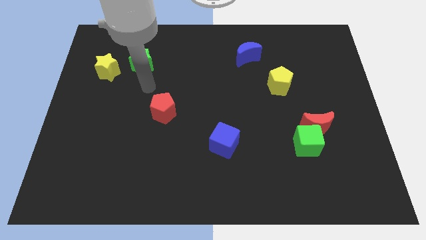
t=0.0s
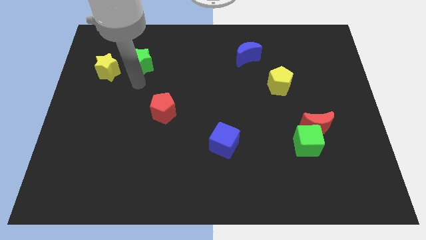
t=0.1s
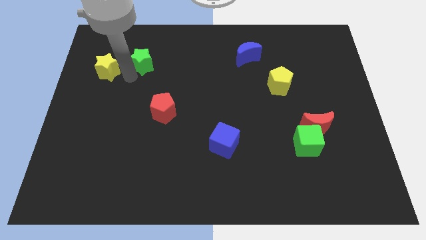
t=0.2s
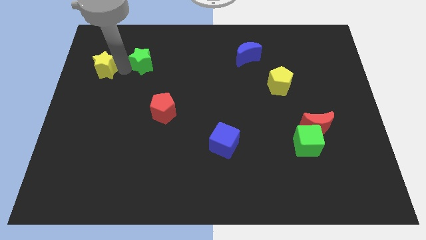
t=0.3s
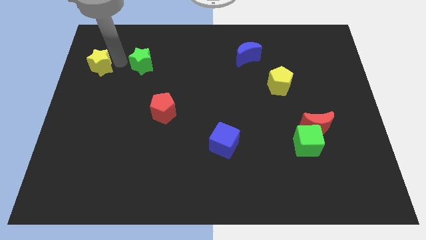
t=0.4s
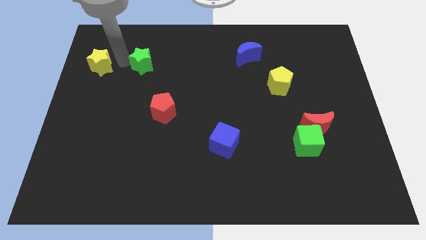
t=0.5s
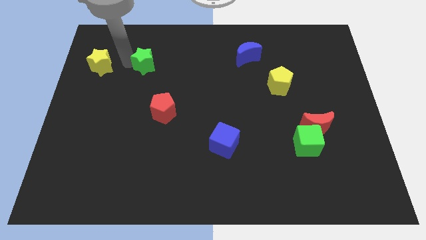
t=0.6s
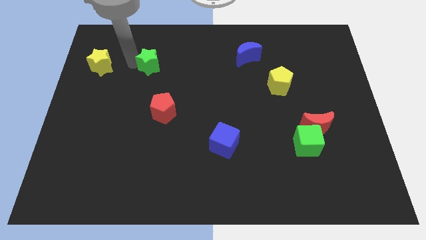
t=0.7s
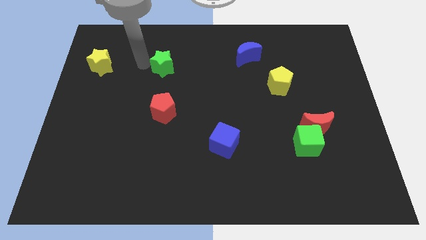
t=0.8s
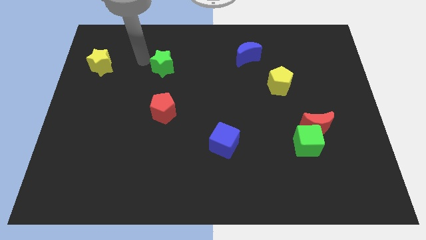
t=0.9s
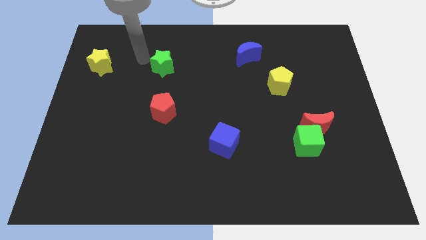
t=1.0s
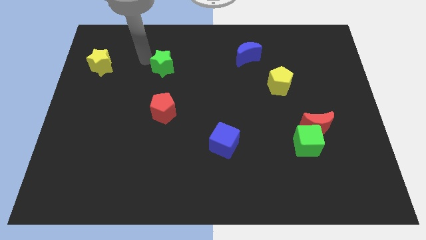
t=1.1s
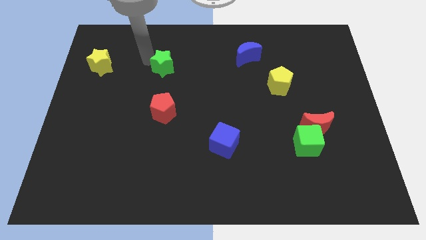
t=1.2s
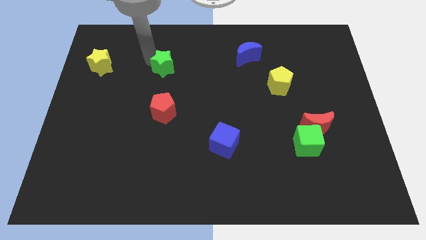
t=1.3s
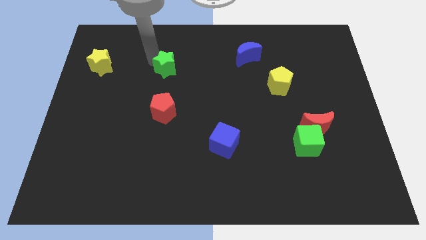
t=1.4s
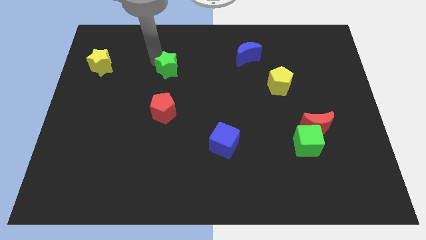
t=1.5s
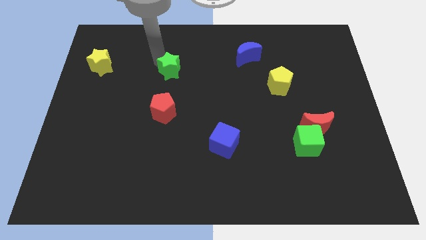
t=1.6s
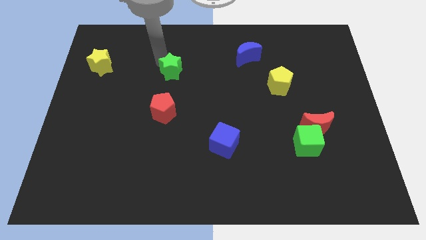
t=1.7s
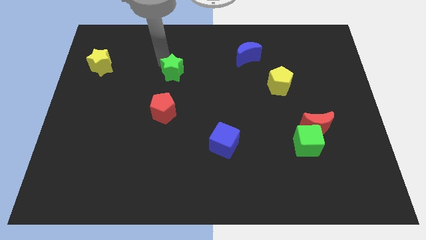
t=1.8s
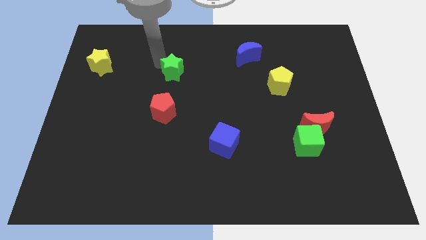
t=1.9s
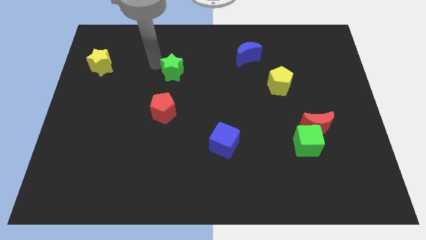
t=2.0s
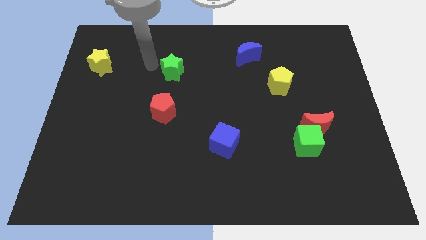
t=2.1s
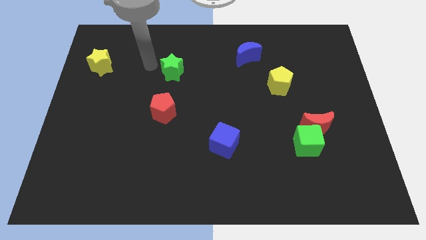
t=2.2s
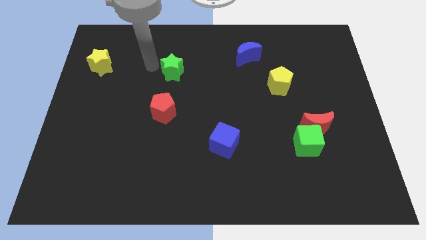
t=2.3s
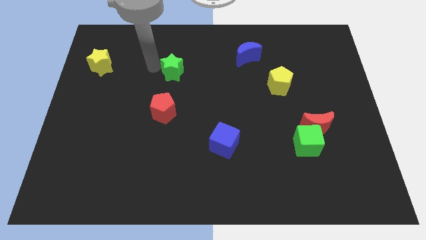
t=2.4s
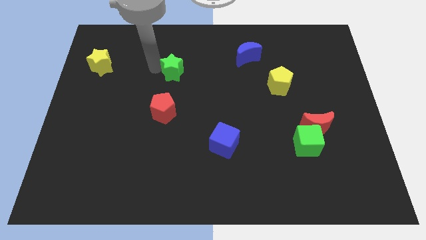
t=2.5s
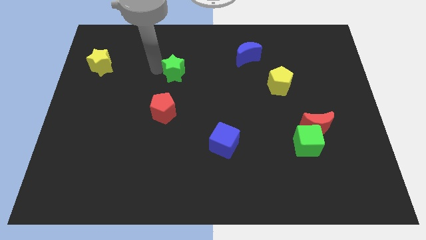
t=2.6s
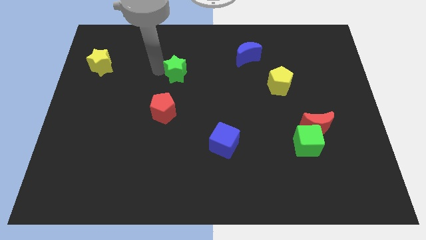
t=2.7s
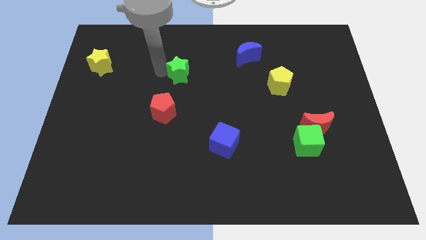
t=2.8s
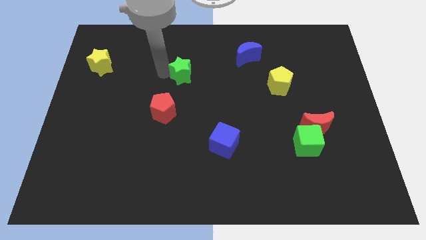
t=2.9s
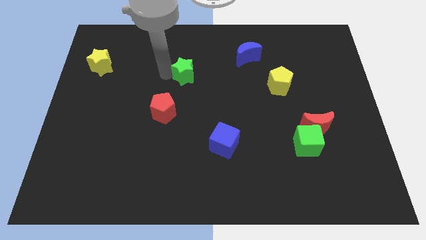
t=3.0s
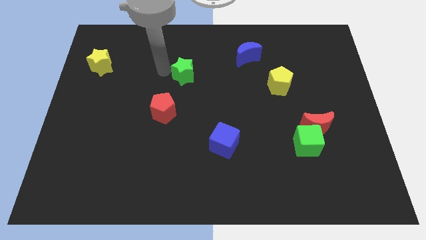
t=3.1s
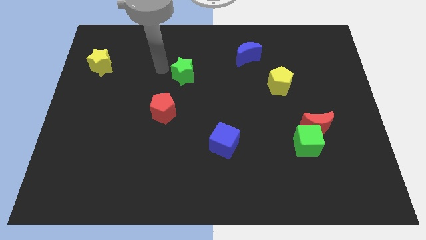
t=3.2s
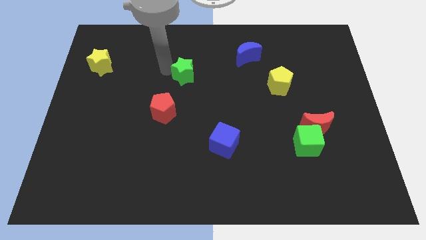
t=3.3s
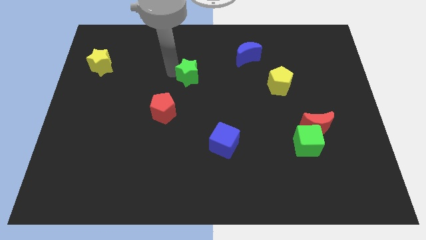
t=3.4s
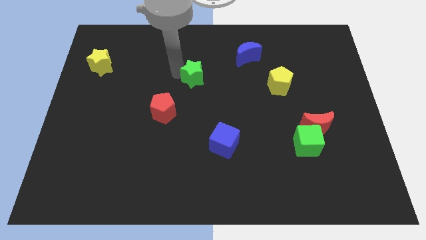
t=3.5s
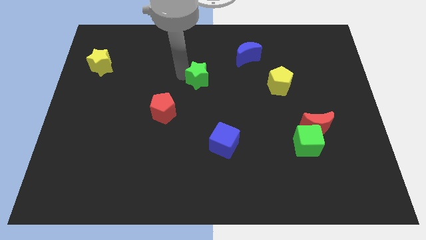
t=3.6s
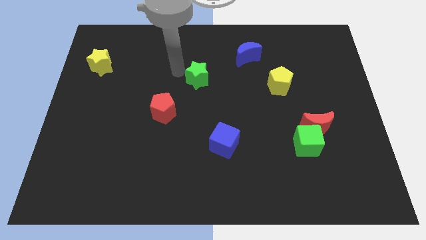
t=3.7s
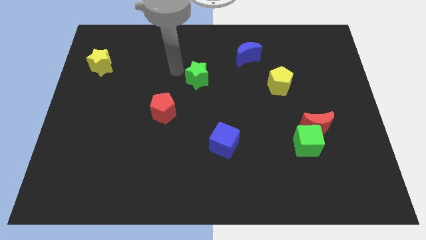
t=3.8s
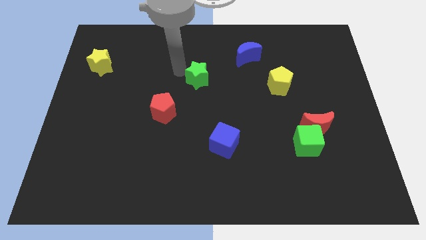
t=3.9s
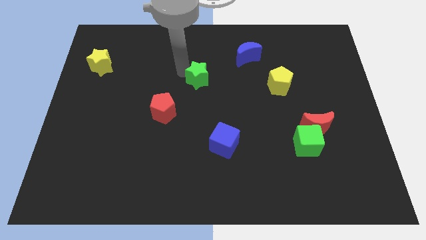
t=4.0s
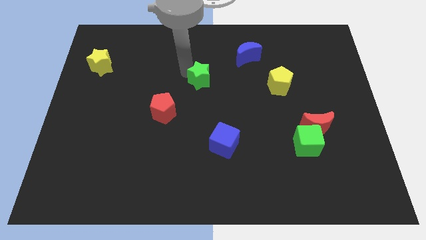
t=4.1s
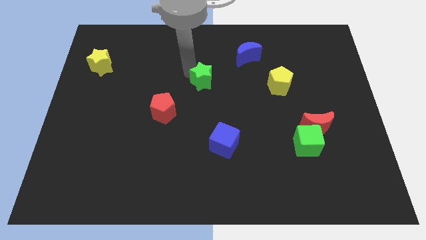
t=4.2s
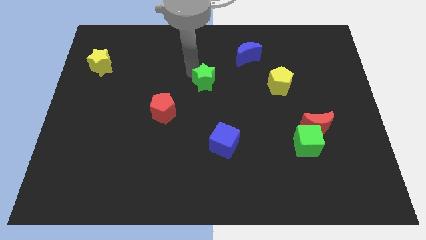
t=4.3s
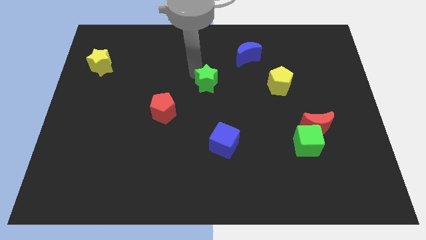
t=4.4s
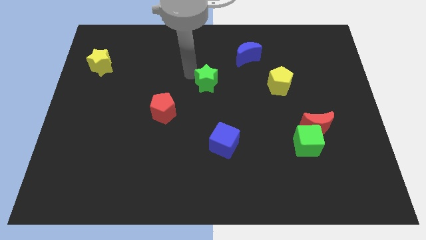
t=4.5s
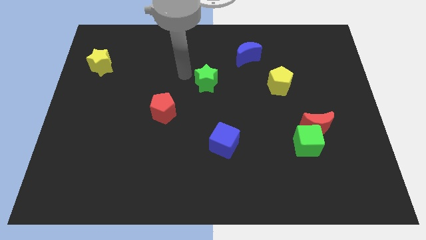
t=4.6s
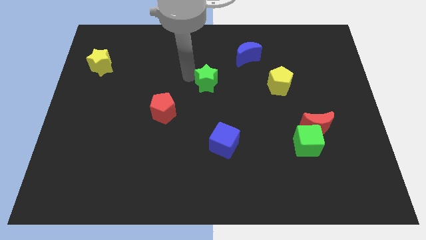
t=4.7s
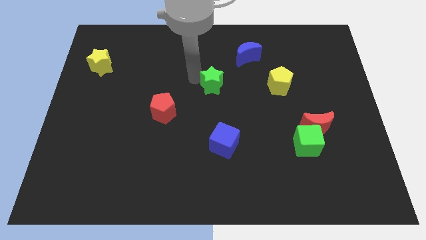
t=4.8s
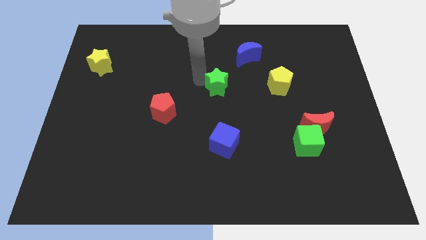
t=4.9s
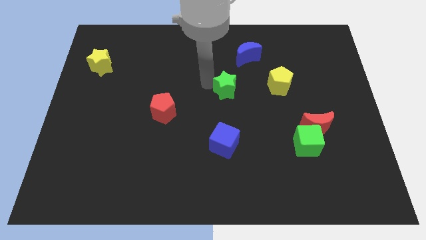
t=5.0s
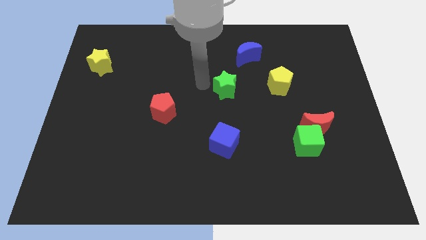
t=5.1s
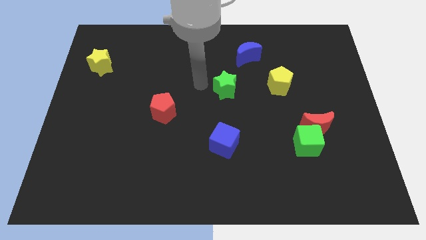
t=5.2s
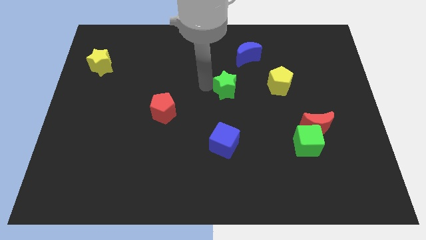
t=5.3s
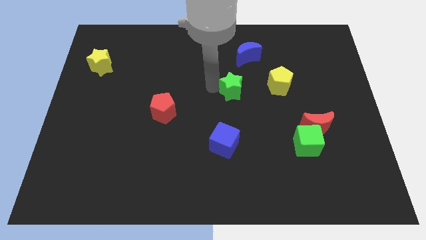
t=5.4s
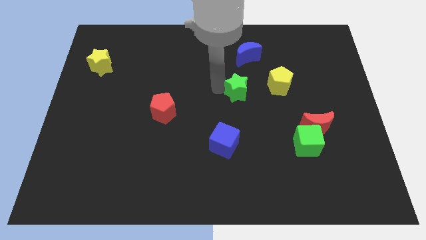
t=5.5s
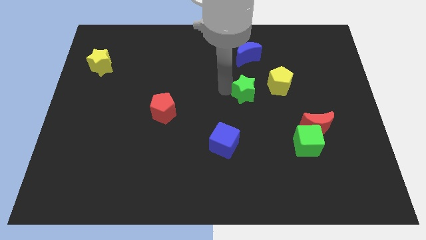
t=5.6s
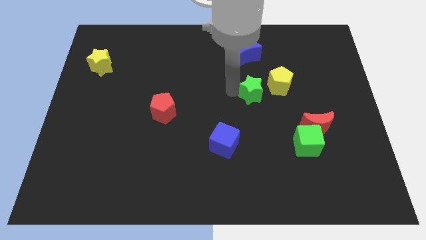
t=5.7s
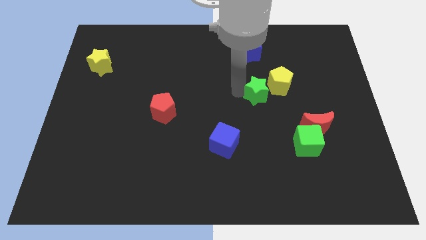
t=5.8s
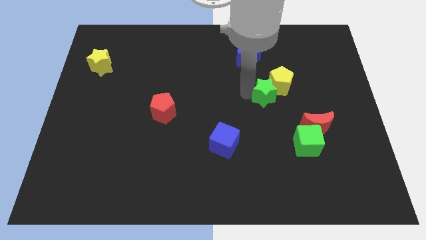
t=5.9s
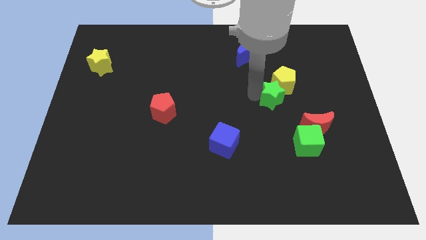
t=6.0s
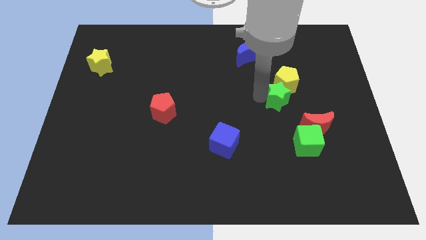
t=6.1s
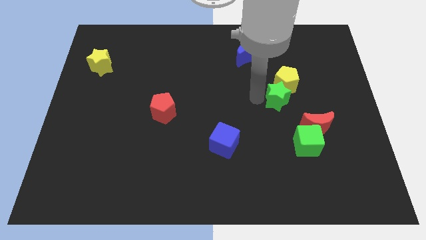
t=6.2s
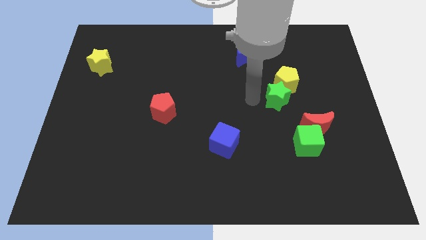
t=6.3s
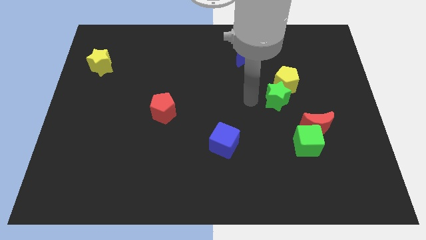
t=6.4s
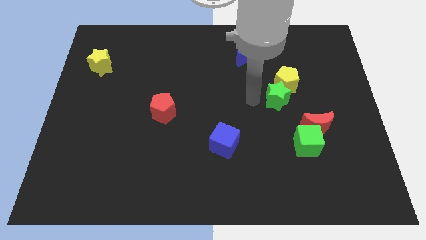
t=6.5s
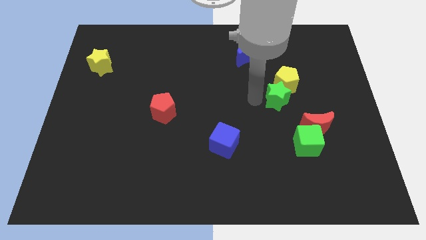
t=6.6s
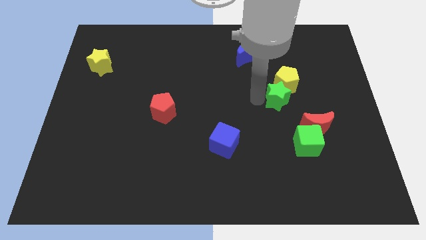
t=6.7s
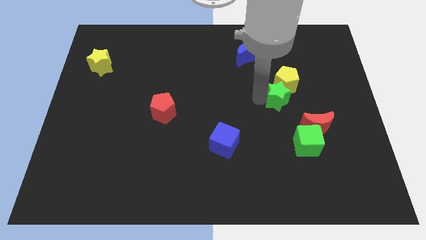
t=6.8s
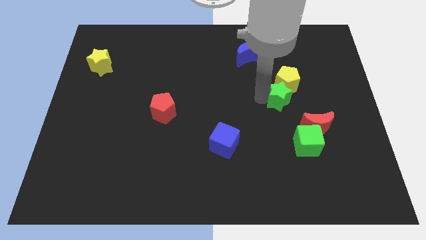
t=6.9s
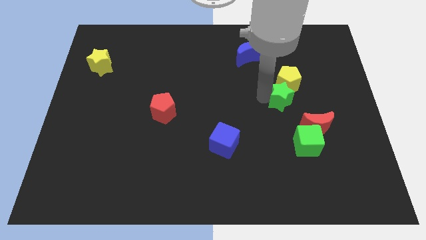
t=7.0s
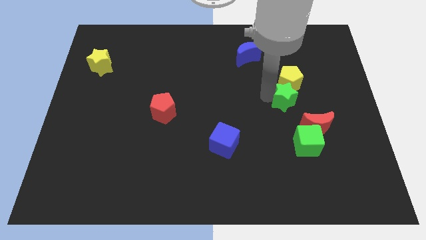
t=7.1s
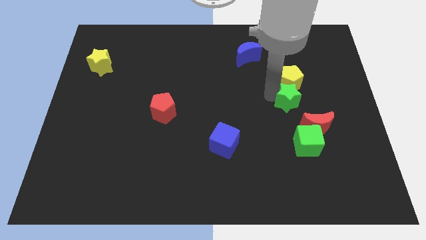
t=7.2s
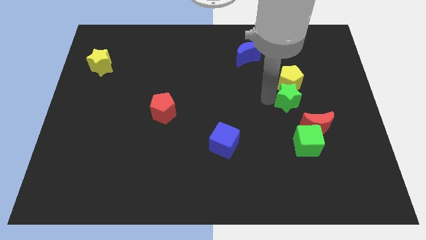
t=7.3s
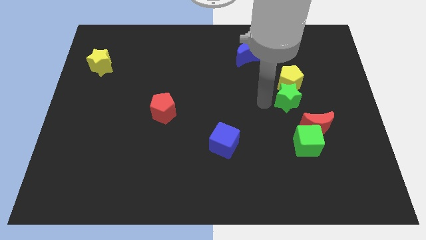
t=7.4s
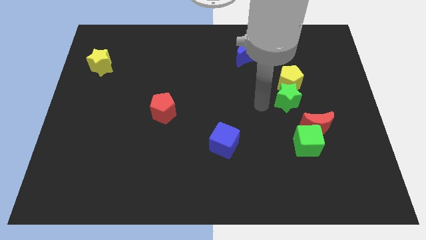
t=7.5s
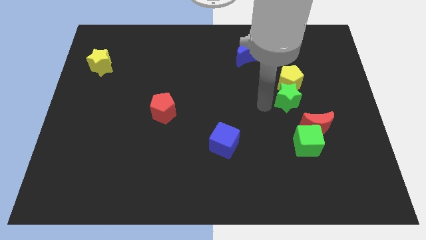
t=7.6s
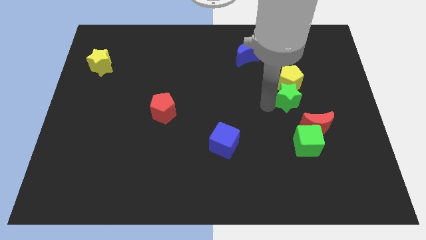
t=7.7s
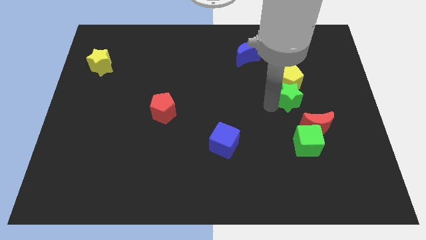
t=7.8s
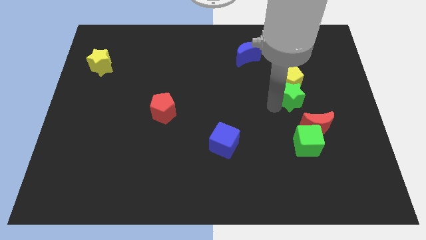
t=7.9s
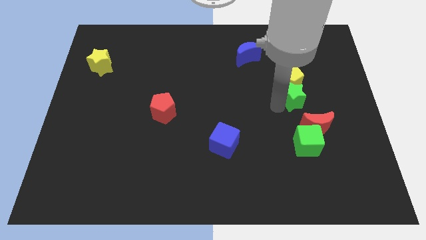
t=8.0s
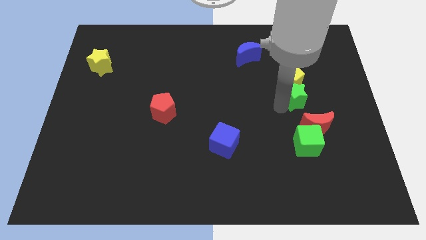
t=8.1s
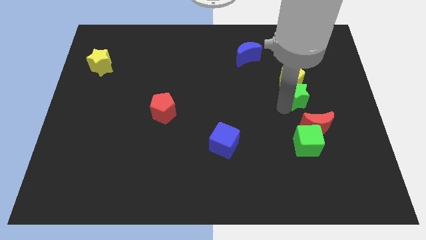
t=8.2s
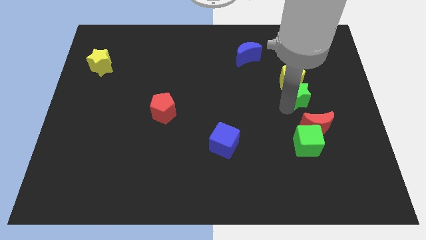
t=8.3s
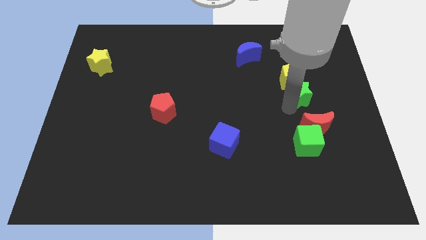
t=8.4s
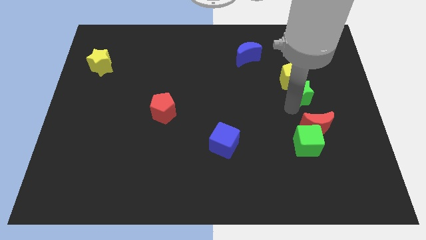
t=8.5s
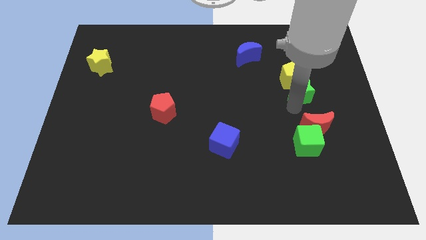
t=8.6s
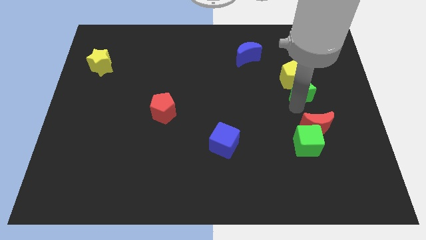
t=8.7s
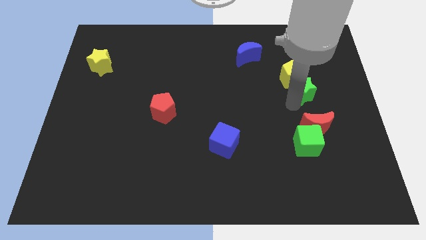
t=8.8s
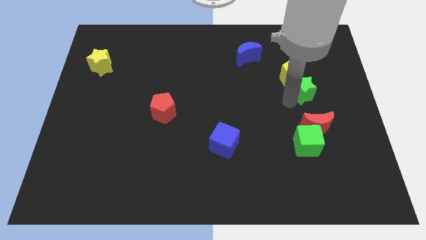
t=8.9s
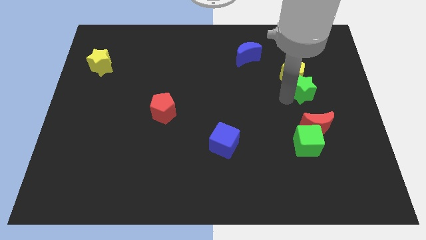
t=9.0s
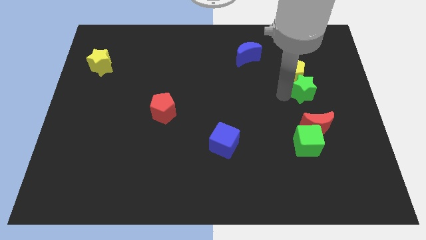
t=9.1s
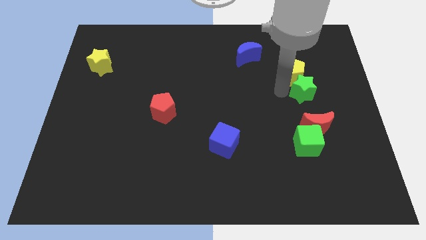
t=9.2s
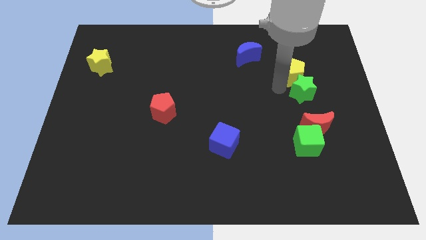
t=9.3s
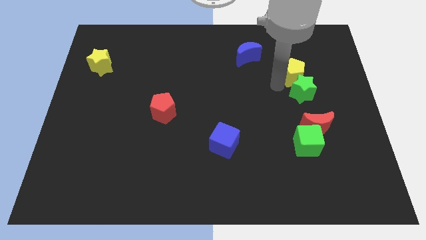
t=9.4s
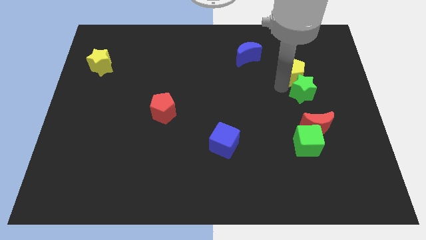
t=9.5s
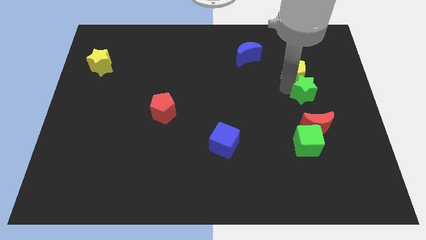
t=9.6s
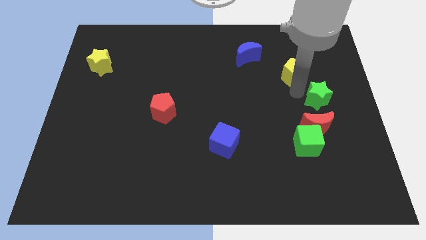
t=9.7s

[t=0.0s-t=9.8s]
move the green star to the right side
